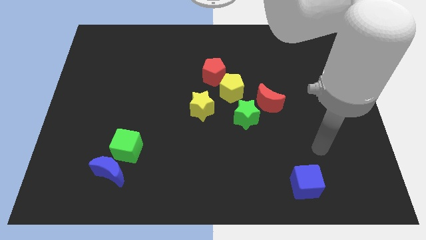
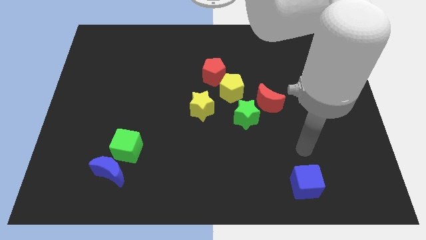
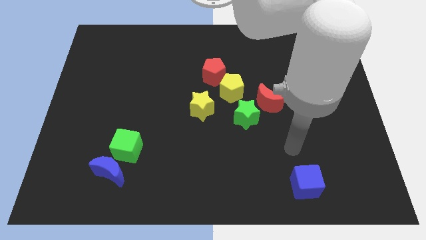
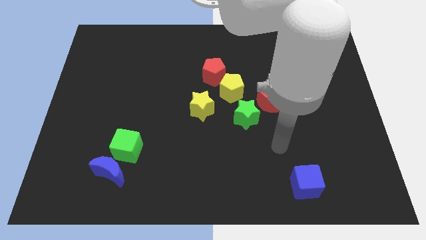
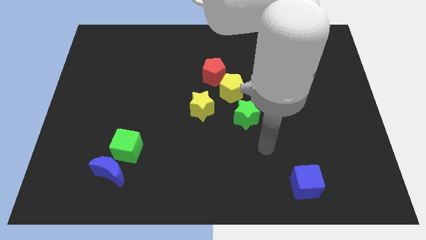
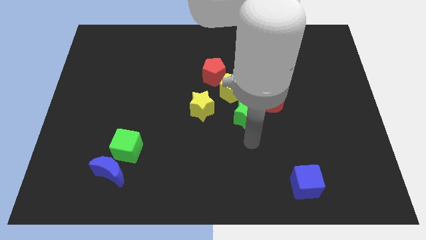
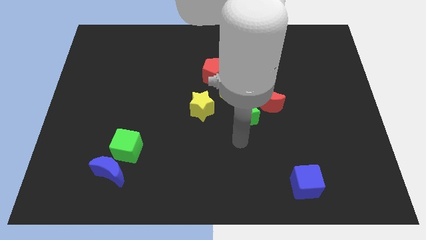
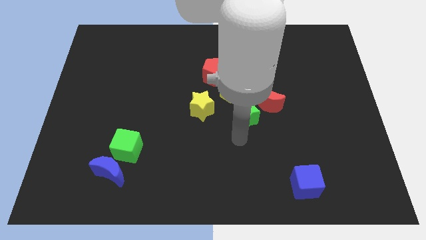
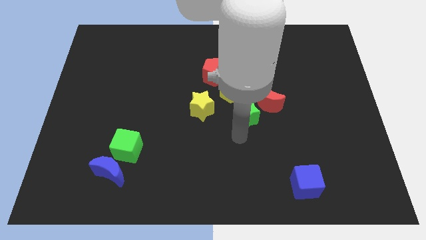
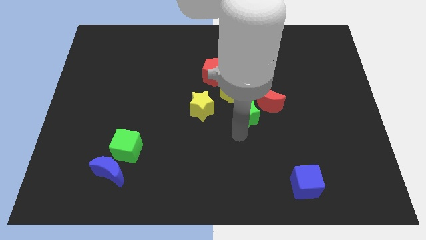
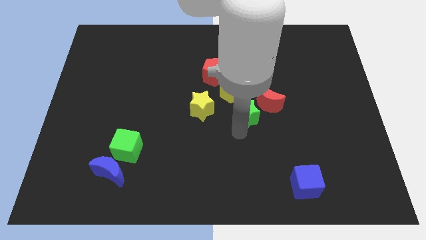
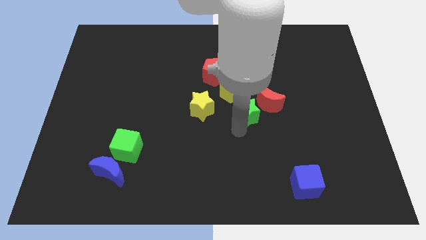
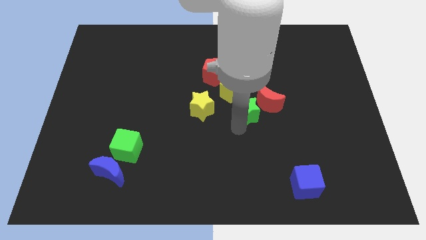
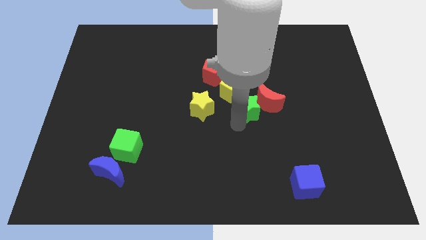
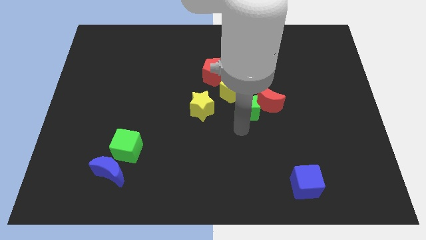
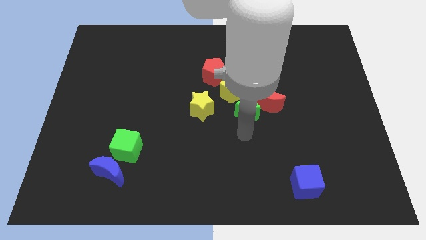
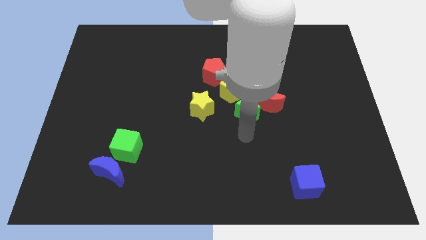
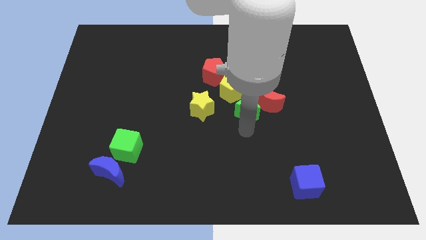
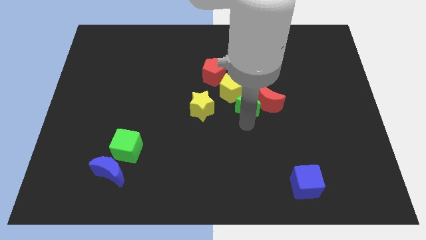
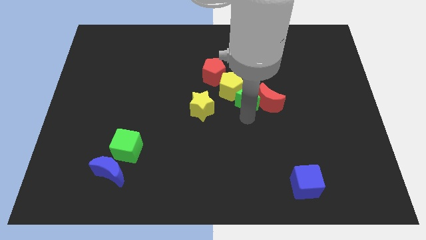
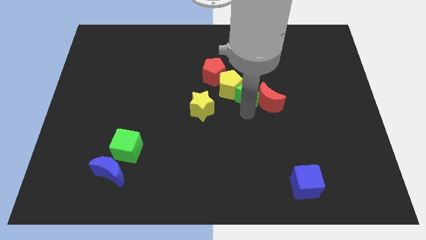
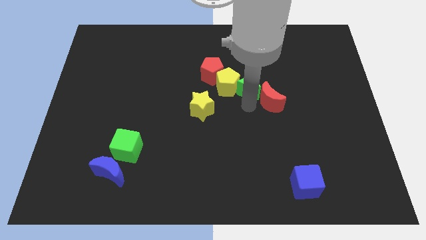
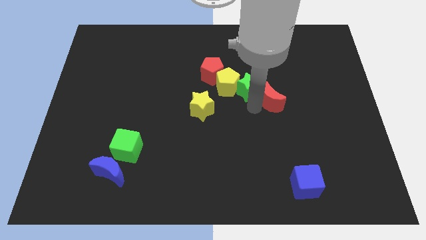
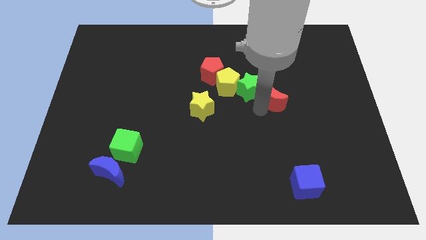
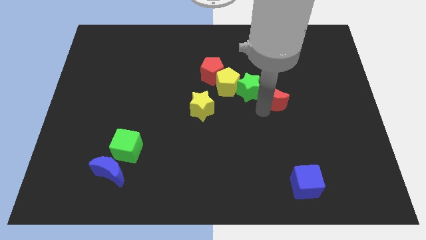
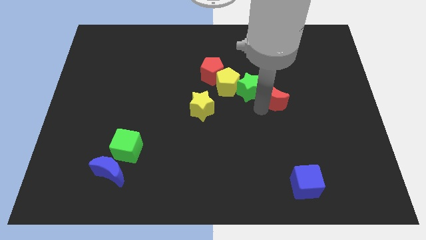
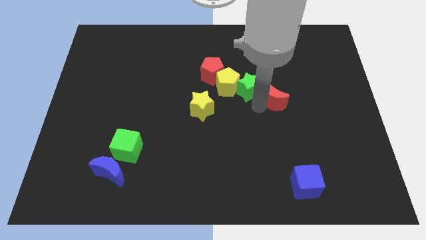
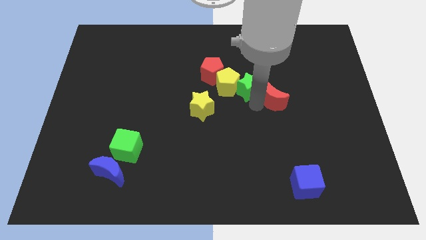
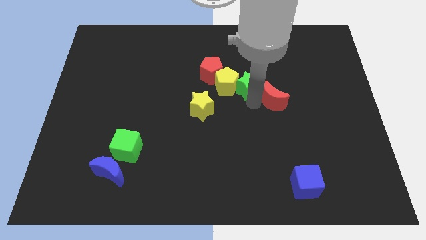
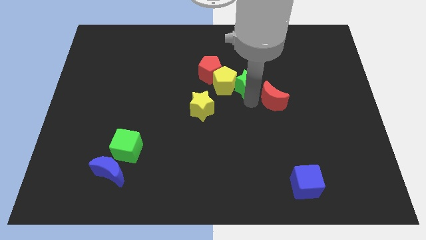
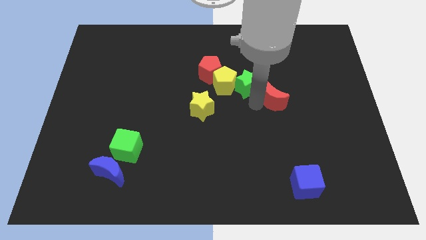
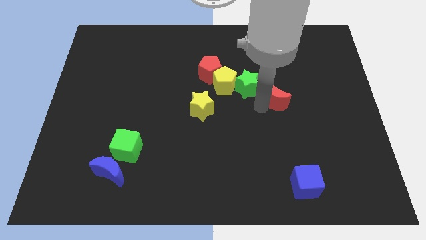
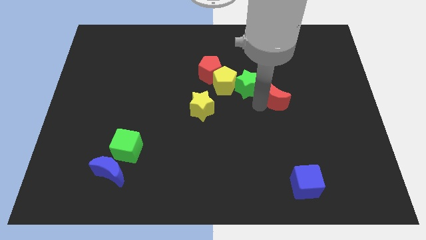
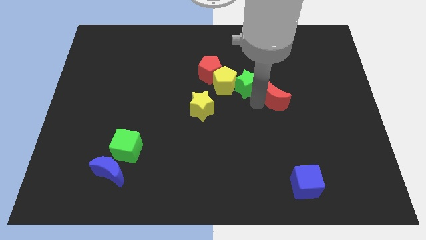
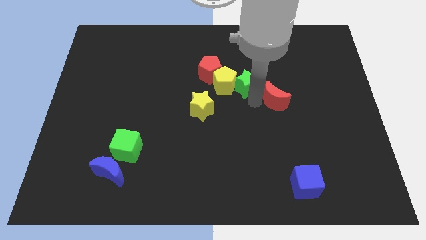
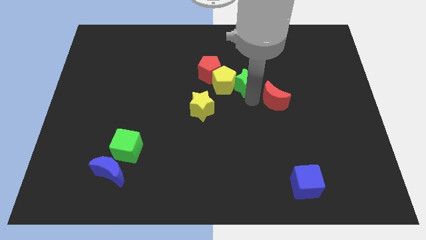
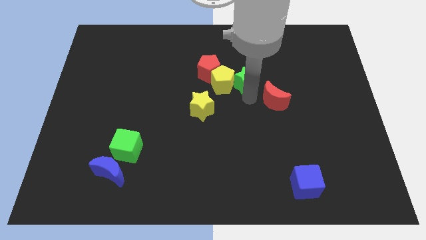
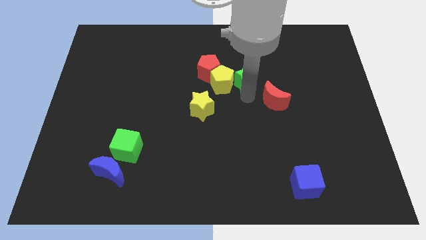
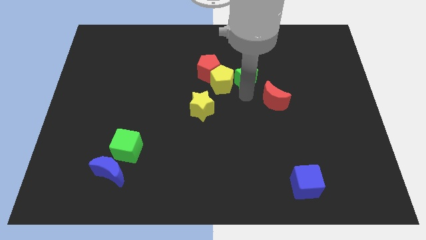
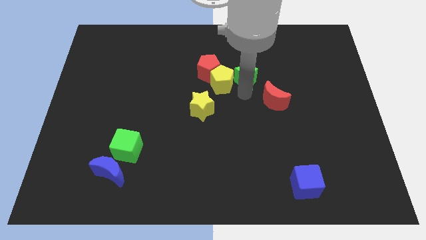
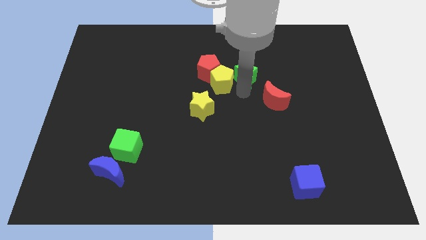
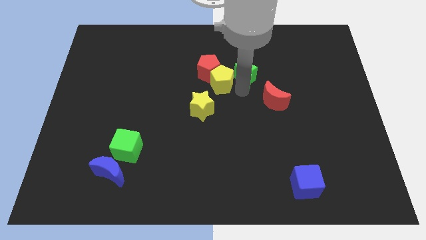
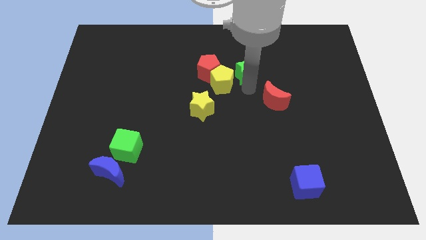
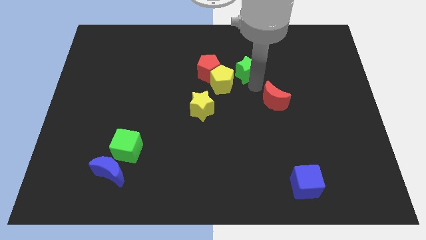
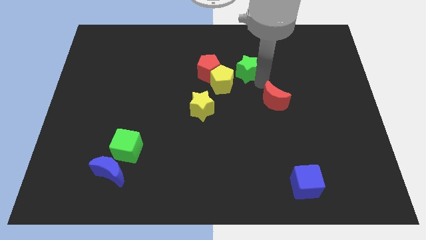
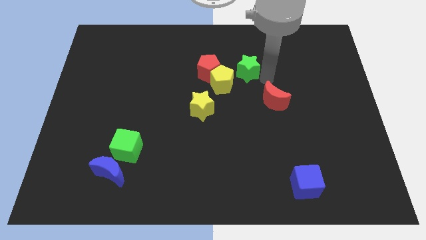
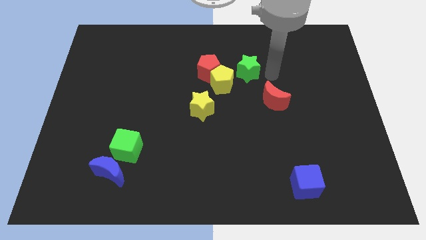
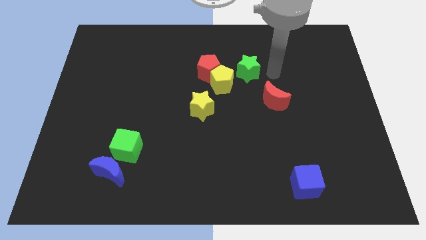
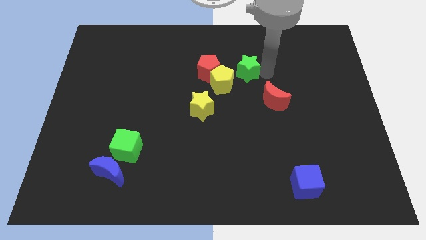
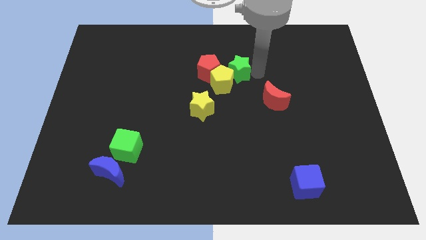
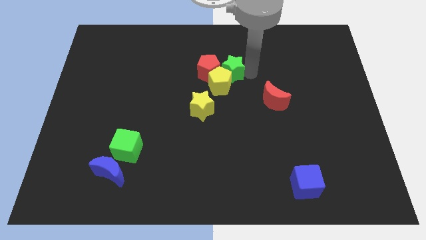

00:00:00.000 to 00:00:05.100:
move the green star next to the red pentagon

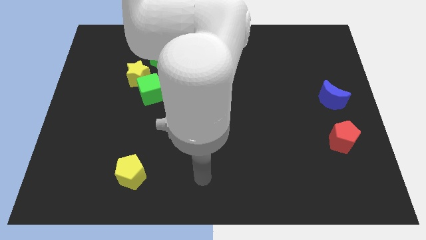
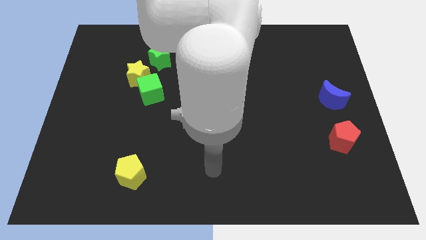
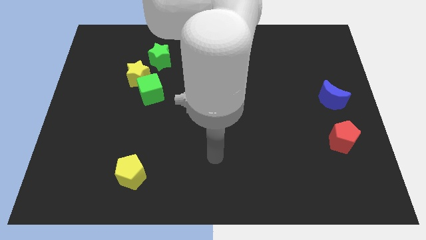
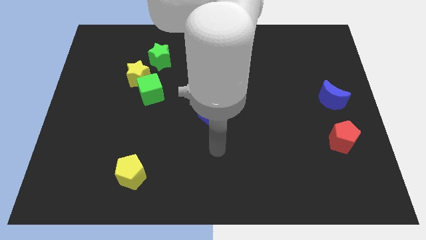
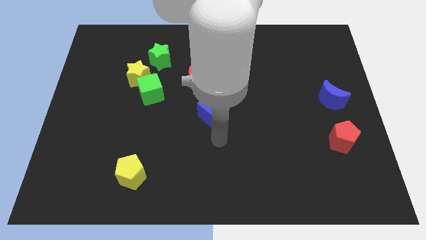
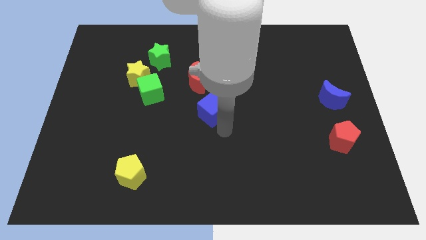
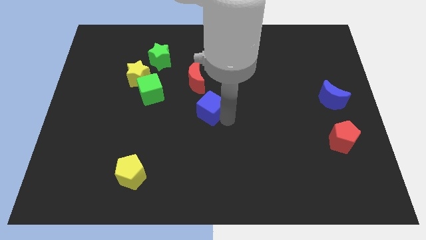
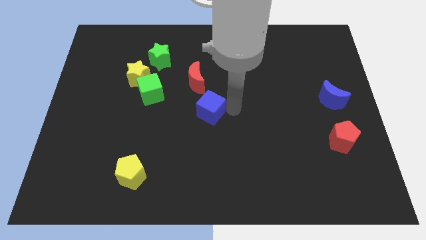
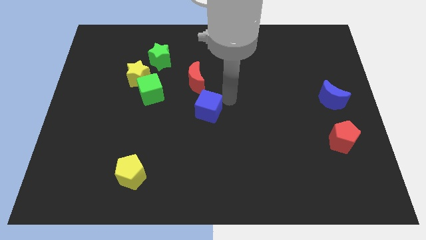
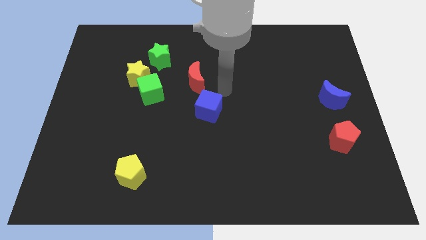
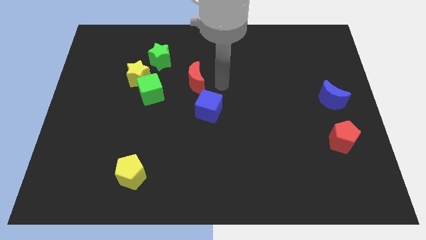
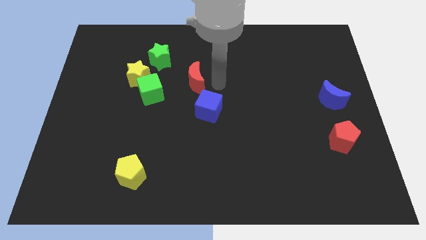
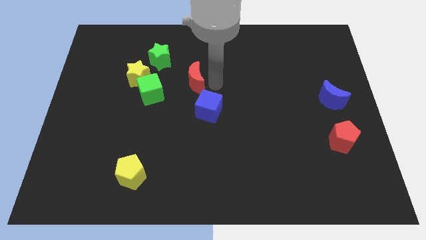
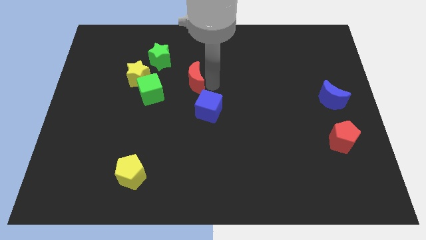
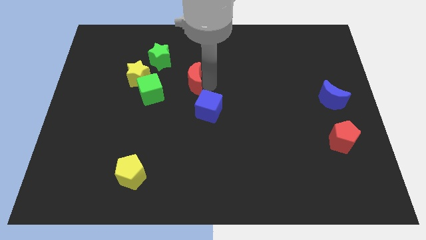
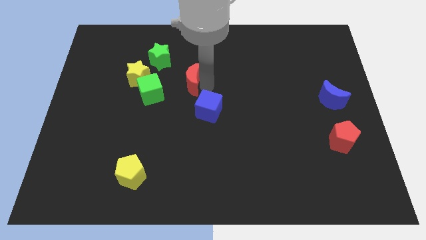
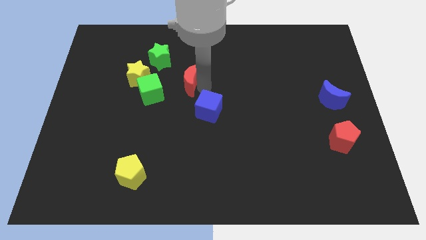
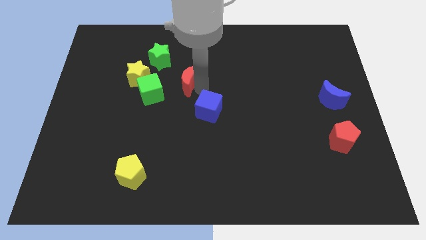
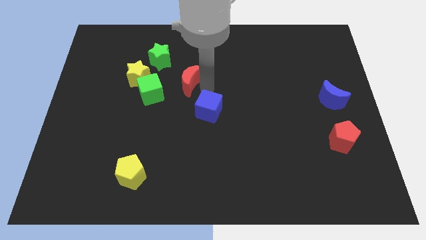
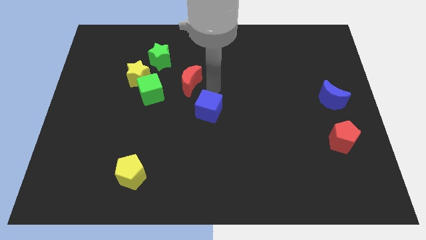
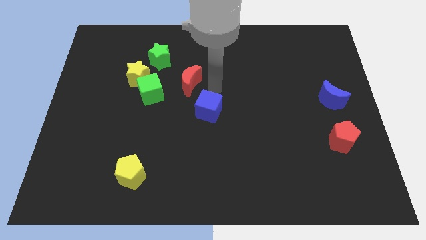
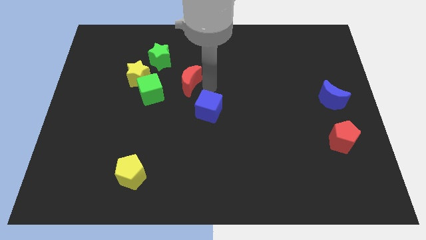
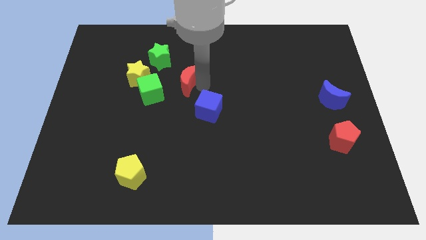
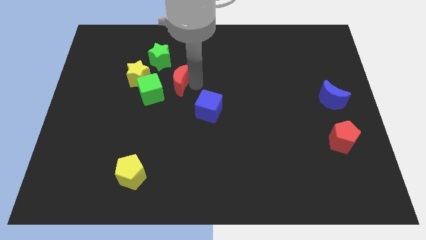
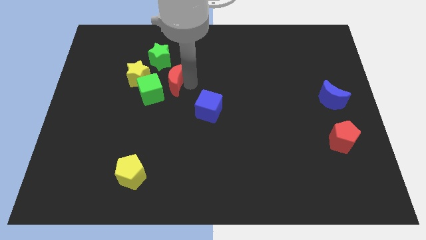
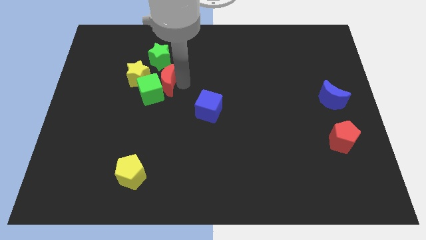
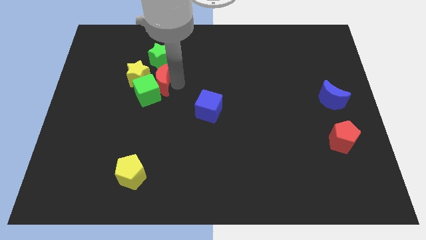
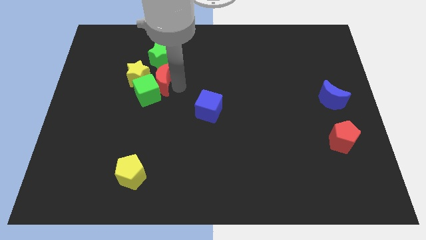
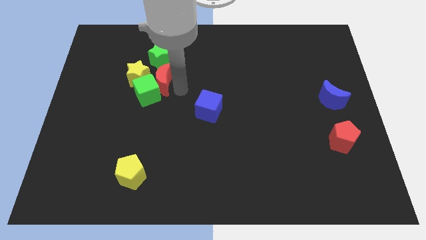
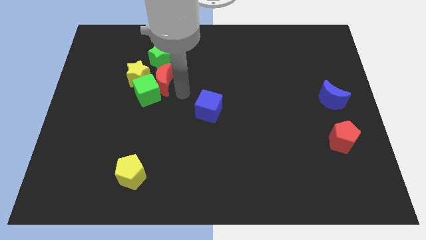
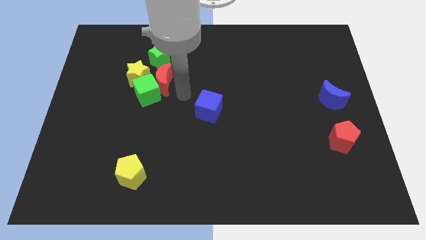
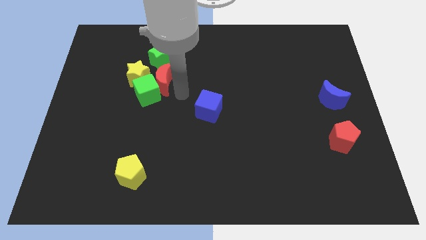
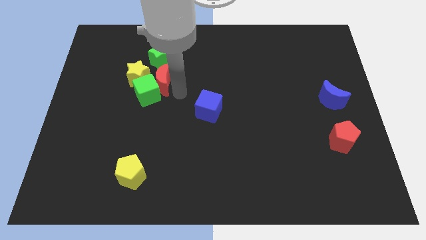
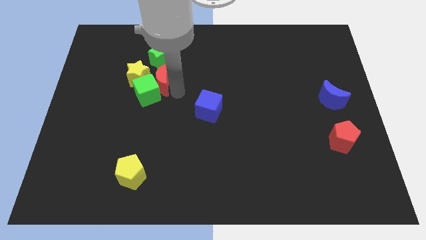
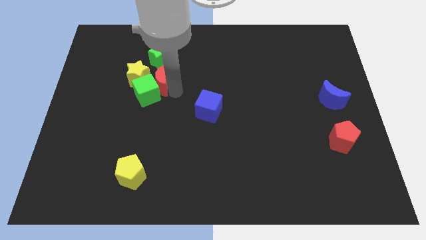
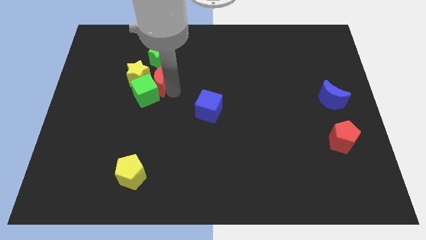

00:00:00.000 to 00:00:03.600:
slide the red moon to the yellow star
